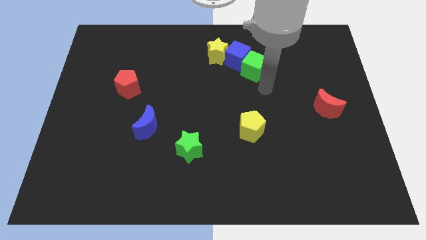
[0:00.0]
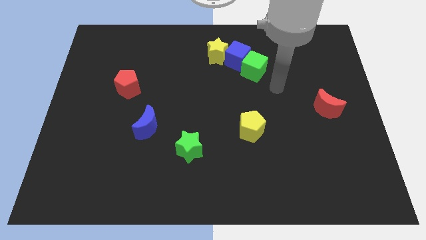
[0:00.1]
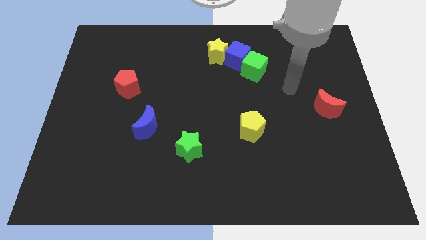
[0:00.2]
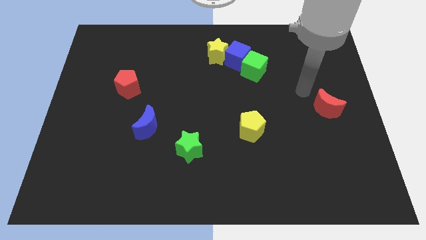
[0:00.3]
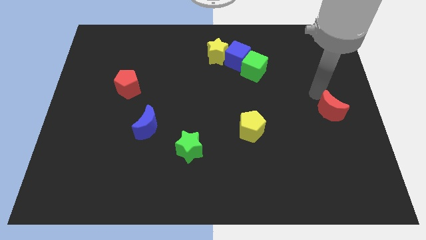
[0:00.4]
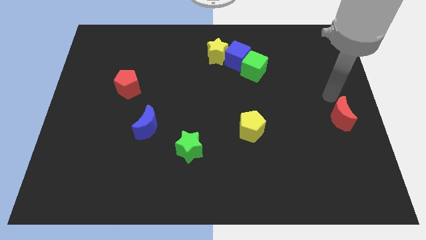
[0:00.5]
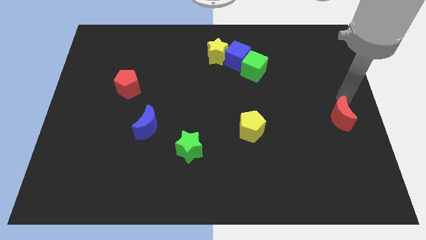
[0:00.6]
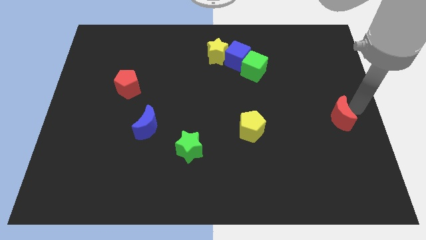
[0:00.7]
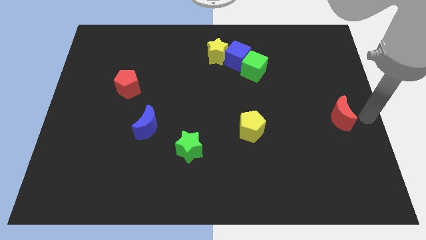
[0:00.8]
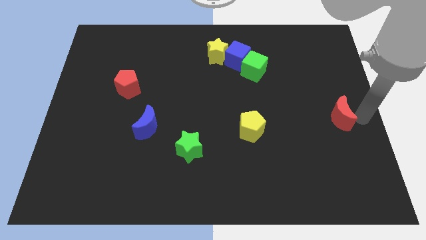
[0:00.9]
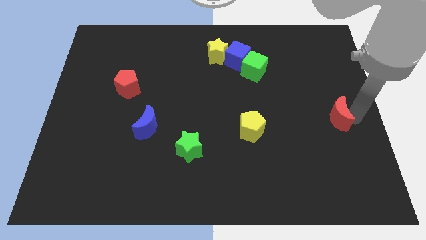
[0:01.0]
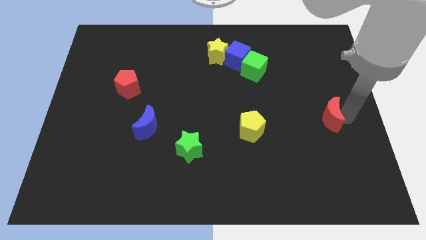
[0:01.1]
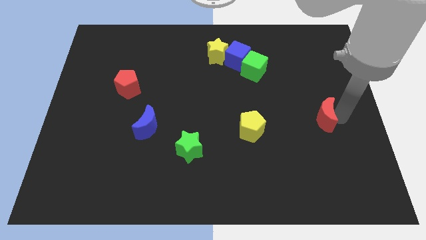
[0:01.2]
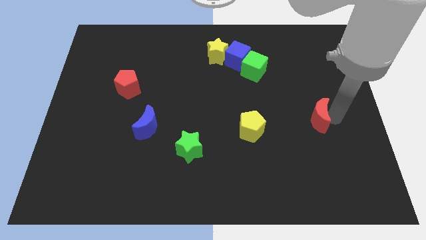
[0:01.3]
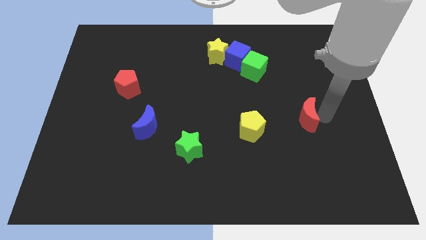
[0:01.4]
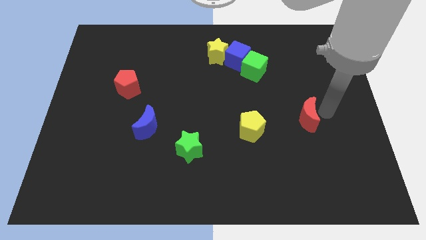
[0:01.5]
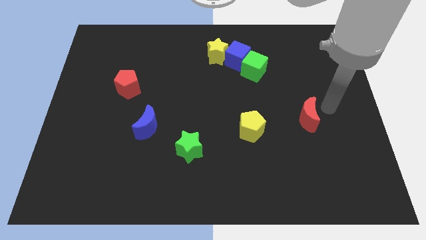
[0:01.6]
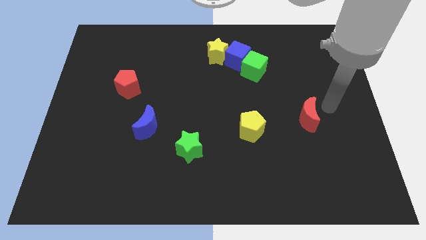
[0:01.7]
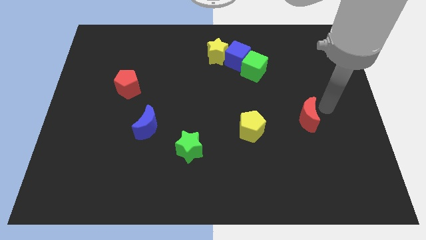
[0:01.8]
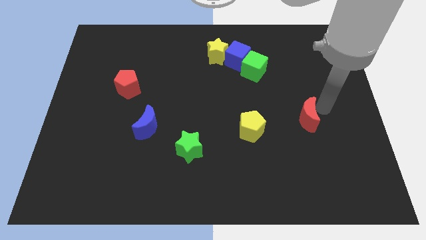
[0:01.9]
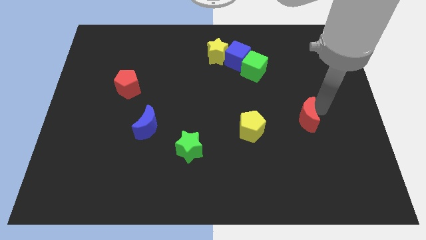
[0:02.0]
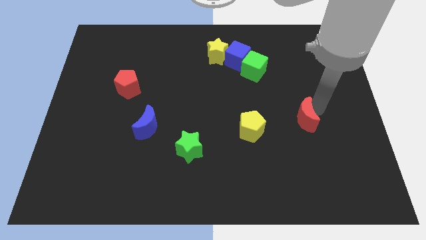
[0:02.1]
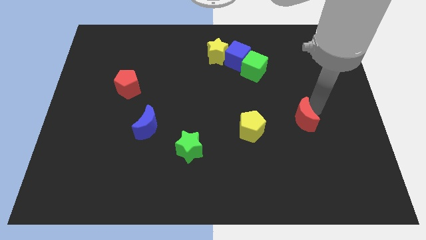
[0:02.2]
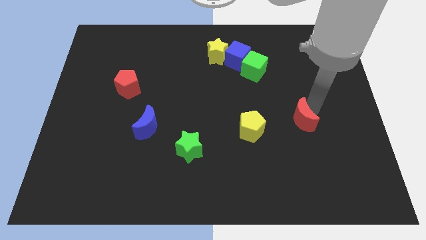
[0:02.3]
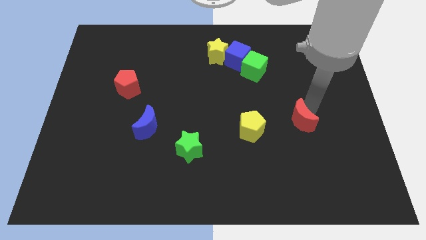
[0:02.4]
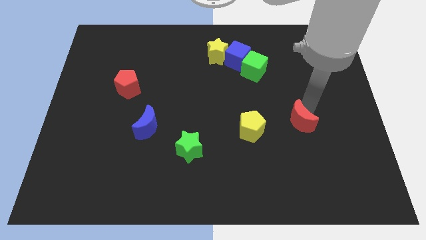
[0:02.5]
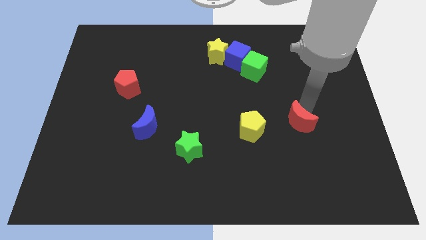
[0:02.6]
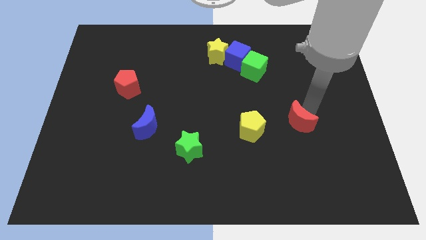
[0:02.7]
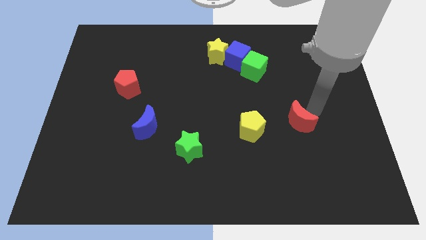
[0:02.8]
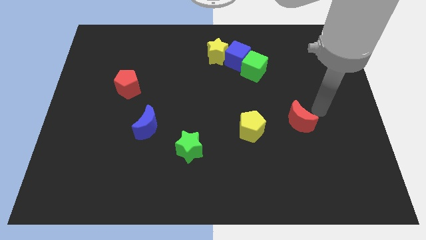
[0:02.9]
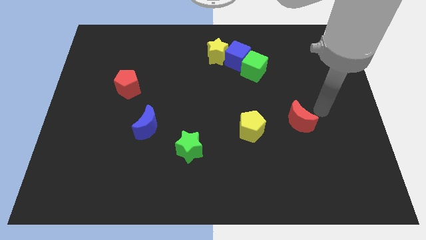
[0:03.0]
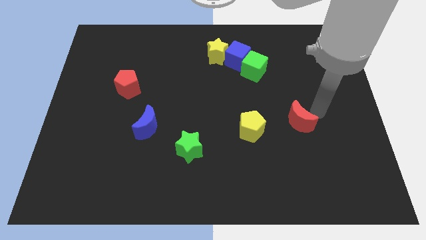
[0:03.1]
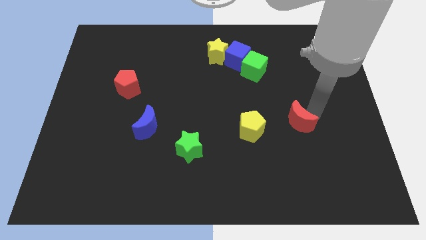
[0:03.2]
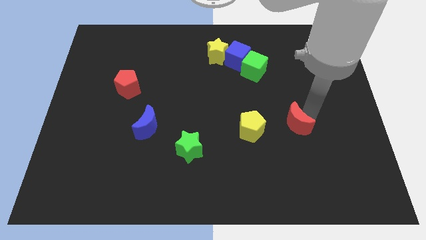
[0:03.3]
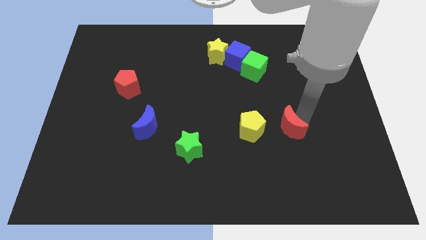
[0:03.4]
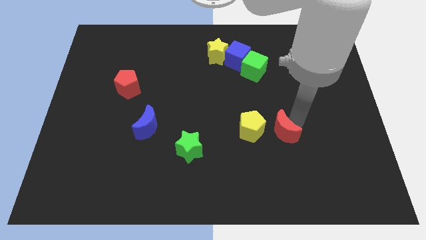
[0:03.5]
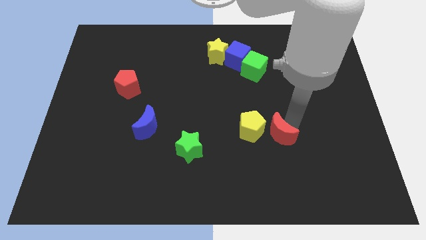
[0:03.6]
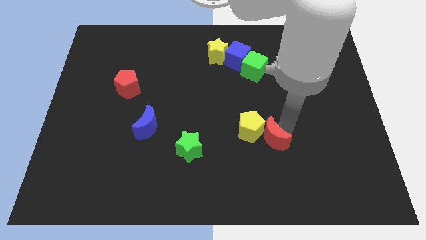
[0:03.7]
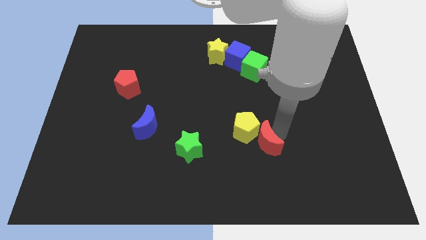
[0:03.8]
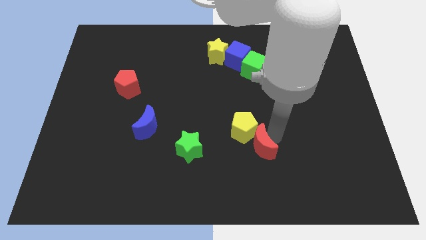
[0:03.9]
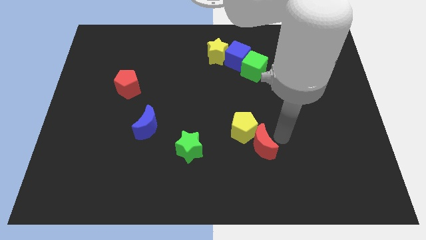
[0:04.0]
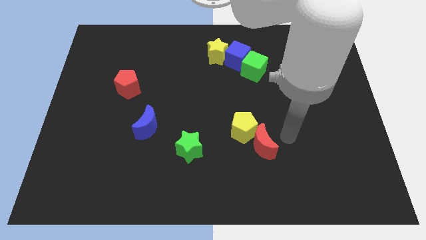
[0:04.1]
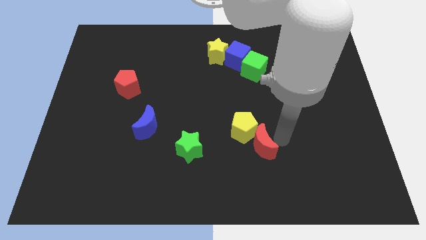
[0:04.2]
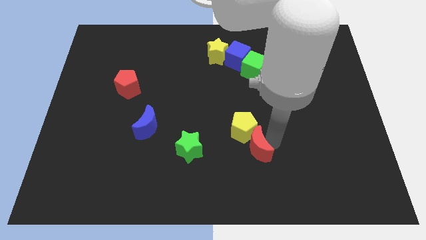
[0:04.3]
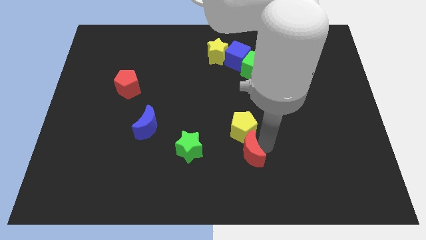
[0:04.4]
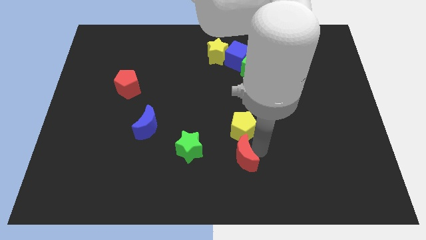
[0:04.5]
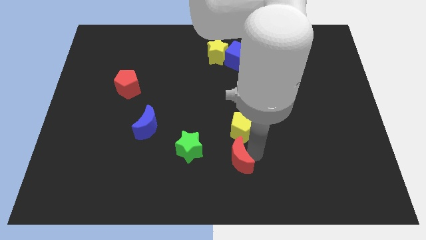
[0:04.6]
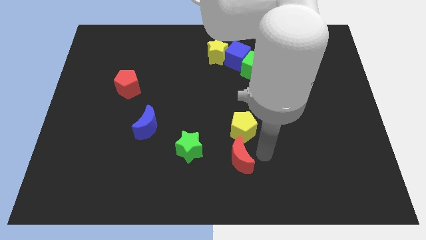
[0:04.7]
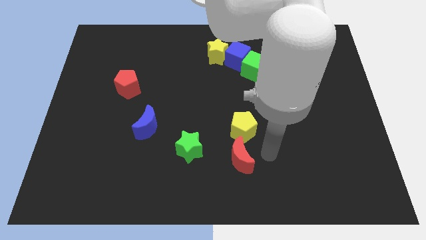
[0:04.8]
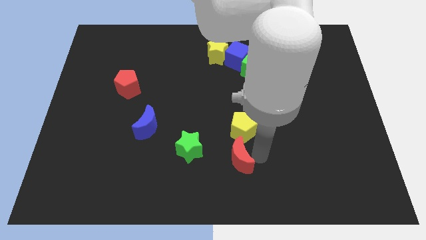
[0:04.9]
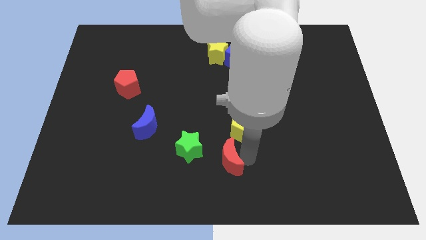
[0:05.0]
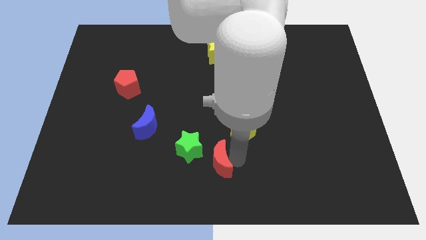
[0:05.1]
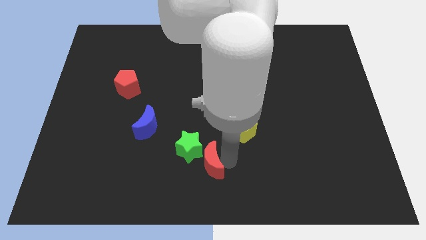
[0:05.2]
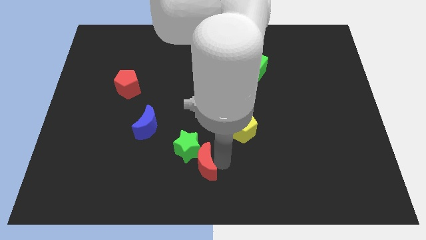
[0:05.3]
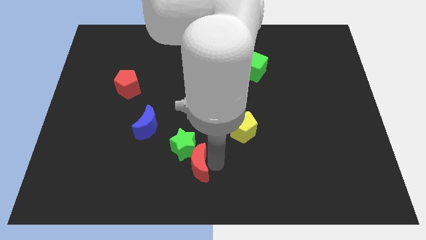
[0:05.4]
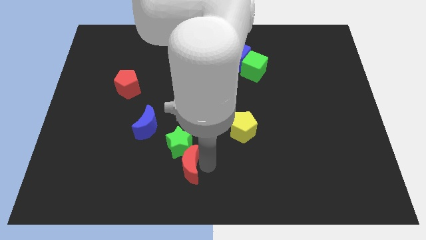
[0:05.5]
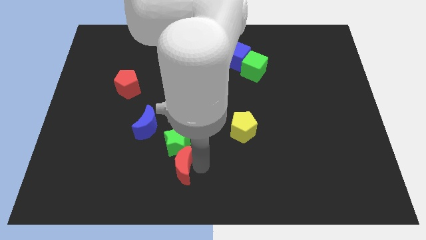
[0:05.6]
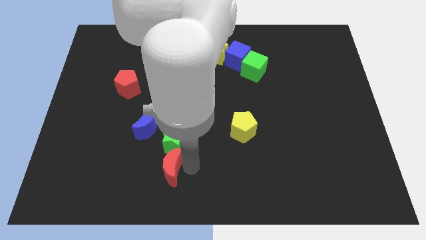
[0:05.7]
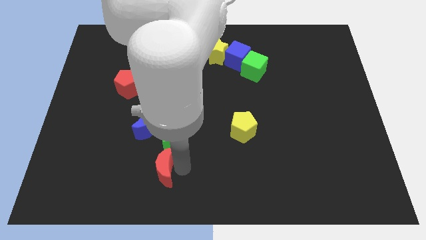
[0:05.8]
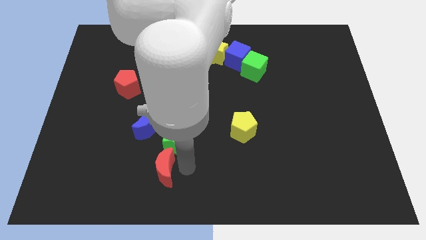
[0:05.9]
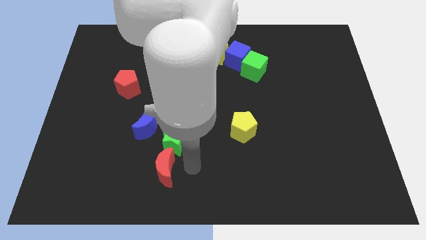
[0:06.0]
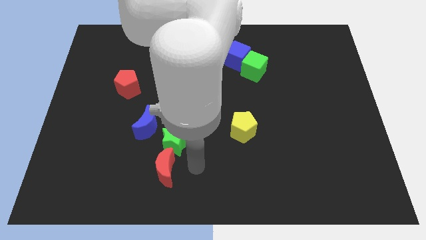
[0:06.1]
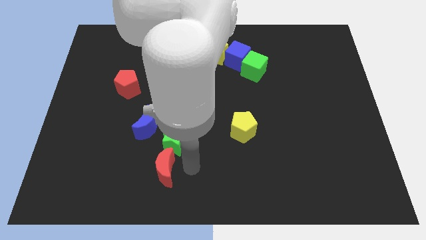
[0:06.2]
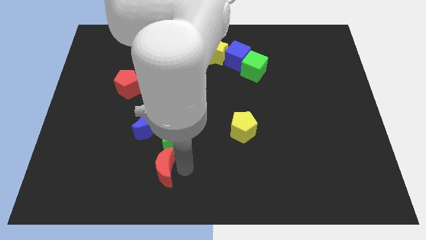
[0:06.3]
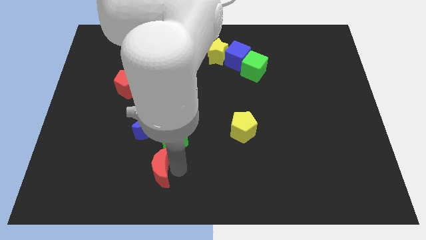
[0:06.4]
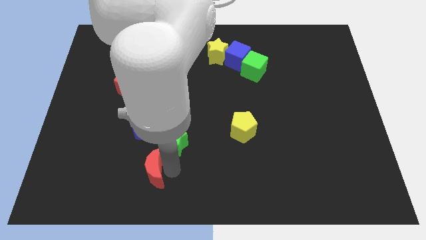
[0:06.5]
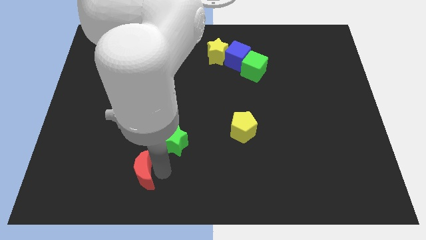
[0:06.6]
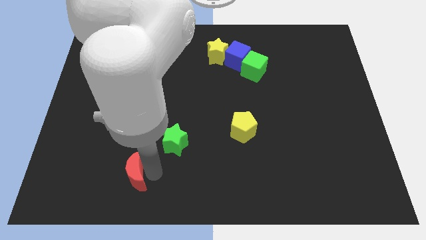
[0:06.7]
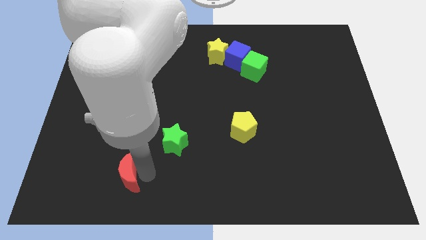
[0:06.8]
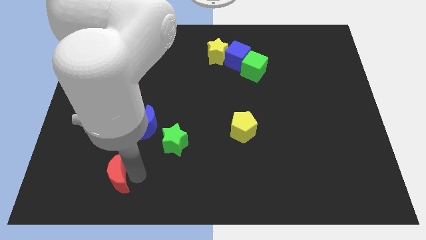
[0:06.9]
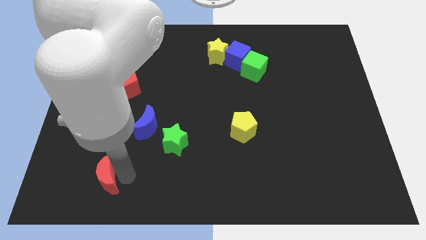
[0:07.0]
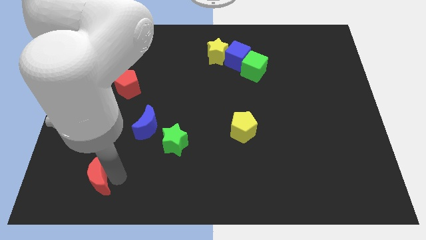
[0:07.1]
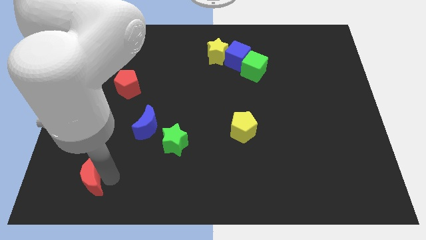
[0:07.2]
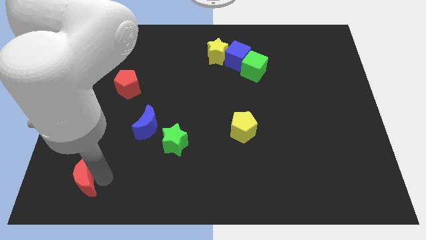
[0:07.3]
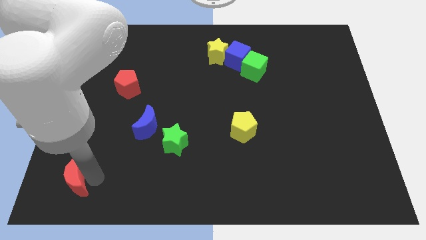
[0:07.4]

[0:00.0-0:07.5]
put the red moon to the lower left corner
